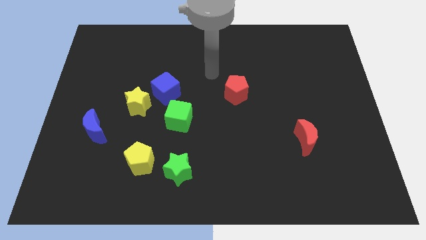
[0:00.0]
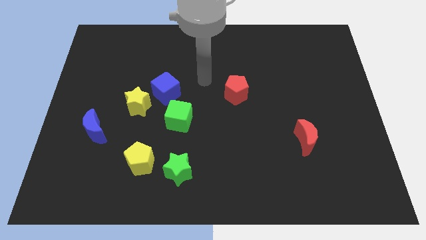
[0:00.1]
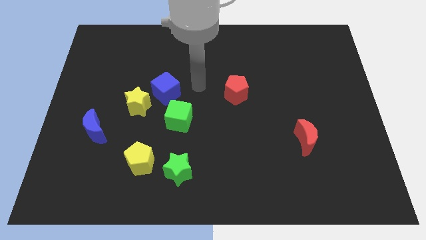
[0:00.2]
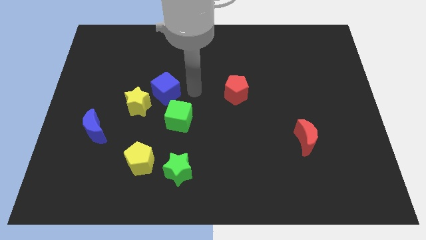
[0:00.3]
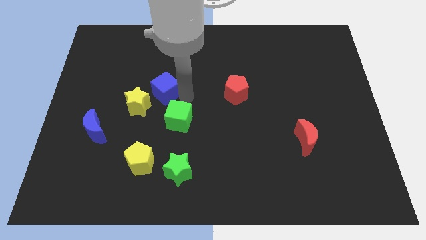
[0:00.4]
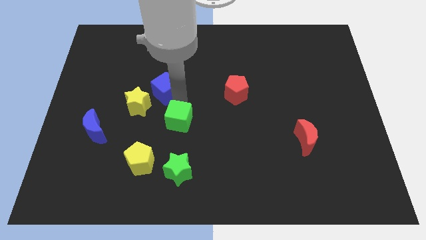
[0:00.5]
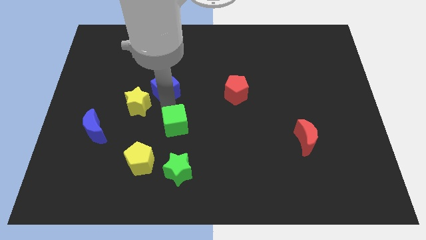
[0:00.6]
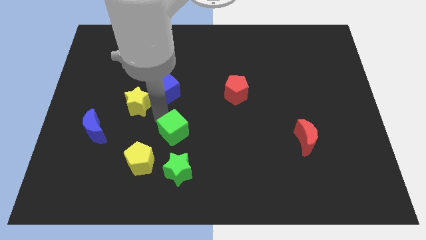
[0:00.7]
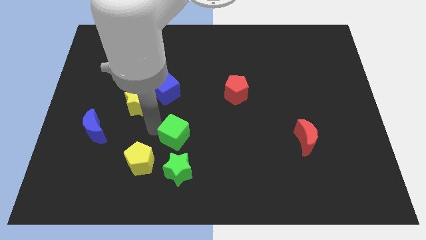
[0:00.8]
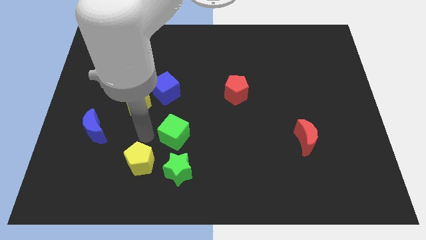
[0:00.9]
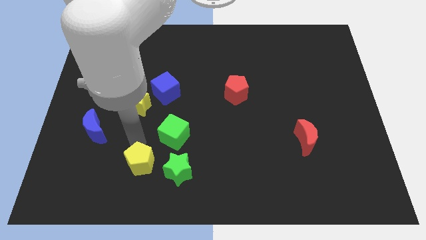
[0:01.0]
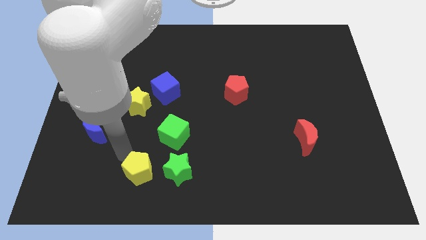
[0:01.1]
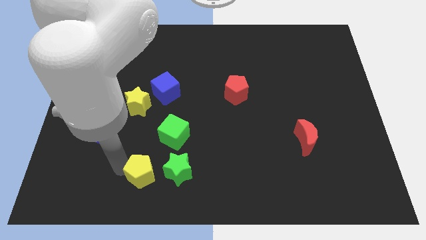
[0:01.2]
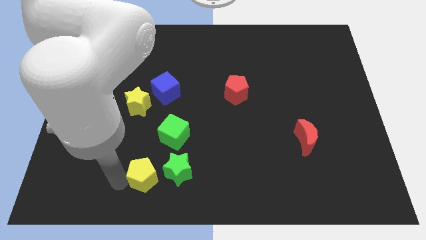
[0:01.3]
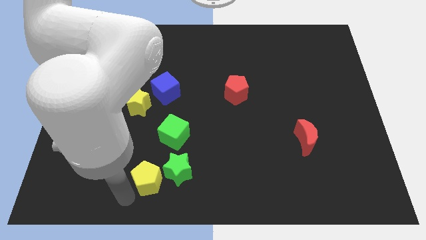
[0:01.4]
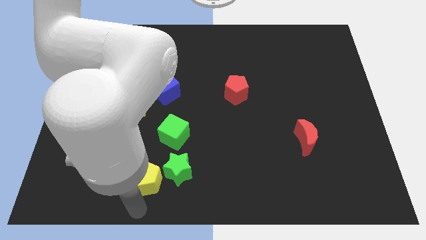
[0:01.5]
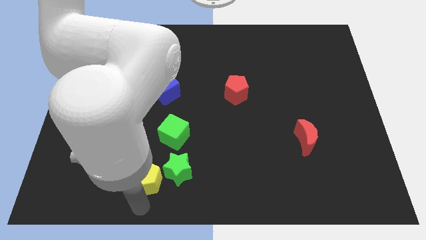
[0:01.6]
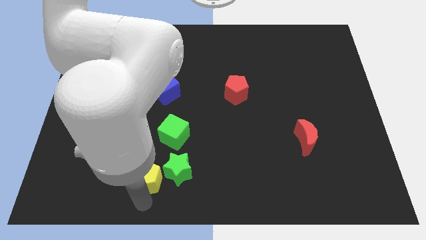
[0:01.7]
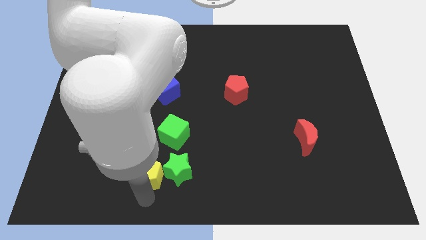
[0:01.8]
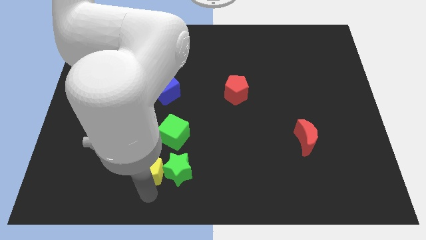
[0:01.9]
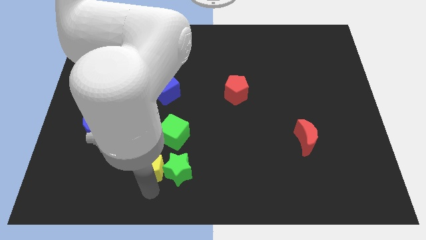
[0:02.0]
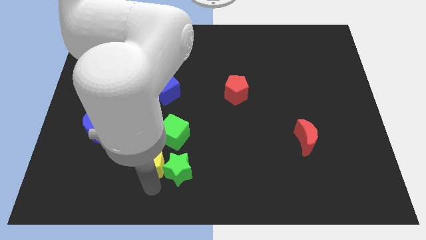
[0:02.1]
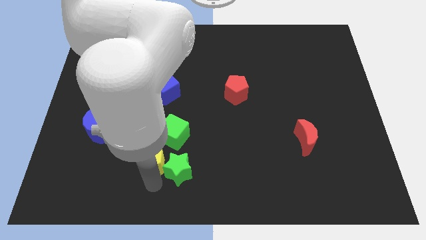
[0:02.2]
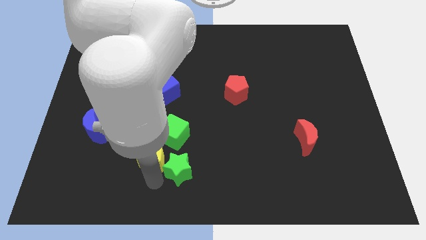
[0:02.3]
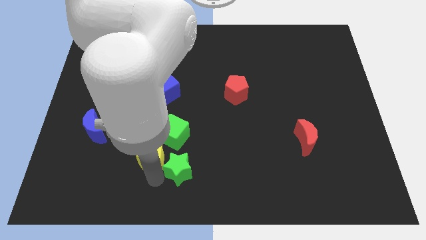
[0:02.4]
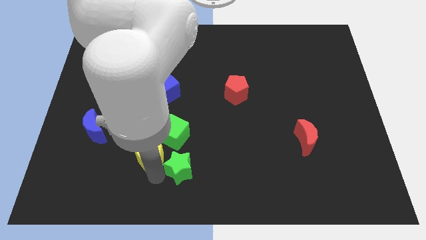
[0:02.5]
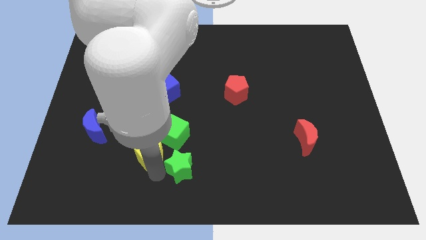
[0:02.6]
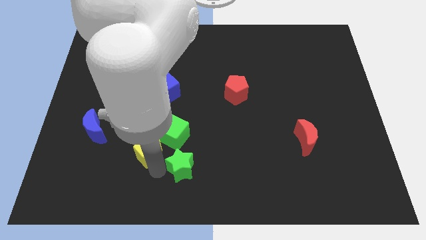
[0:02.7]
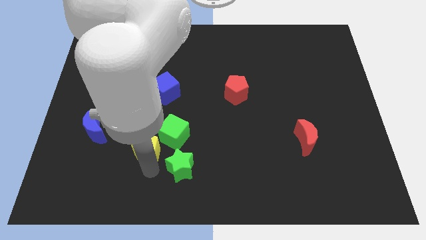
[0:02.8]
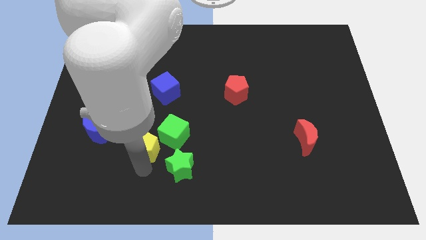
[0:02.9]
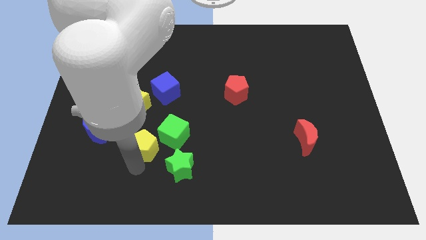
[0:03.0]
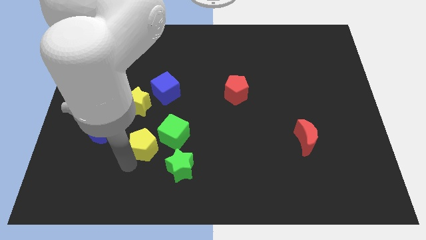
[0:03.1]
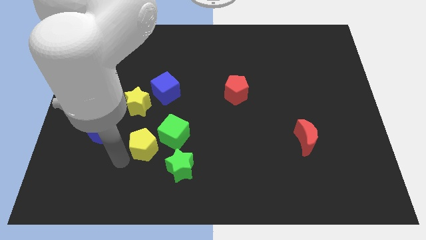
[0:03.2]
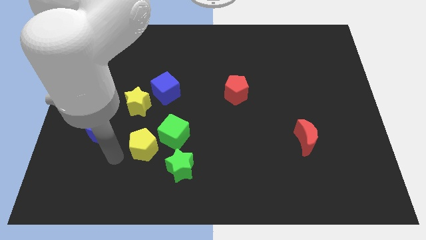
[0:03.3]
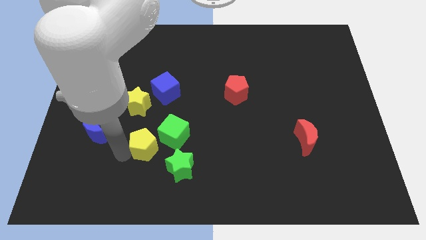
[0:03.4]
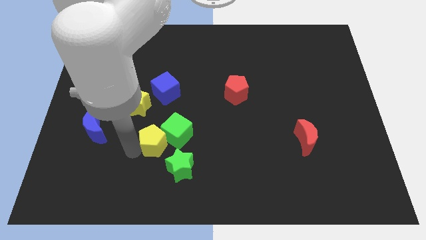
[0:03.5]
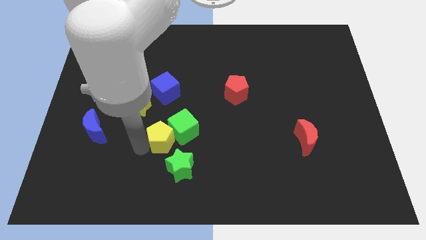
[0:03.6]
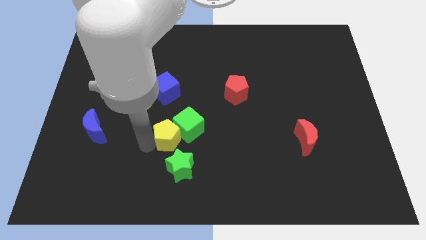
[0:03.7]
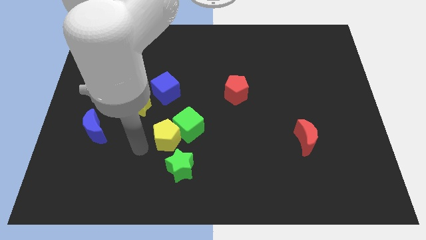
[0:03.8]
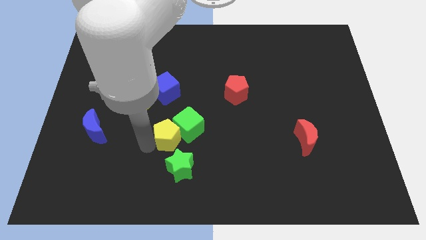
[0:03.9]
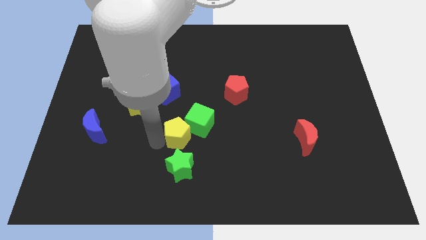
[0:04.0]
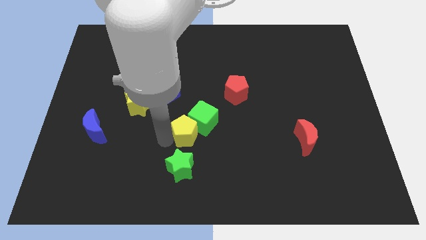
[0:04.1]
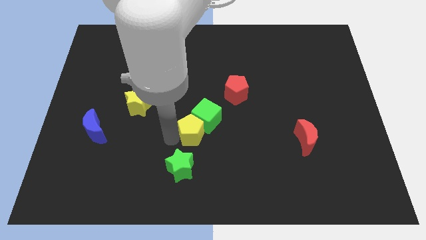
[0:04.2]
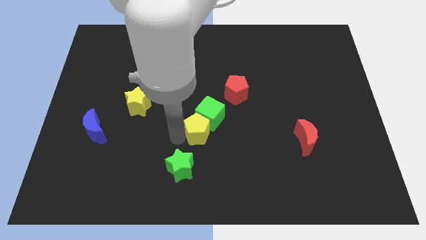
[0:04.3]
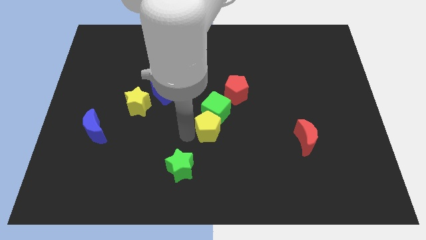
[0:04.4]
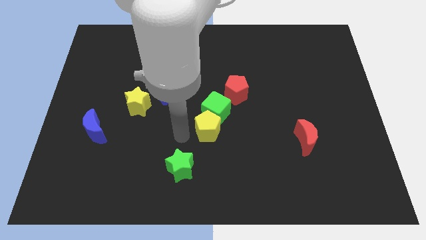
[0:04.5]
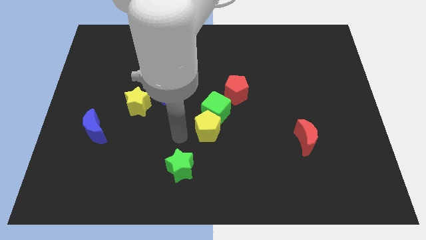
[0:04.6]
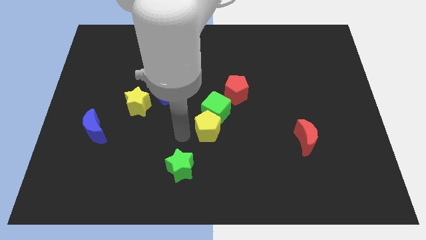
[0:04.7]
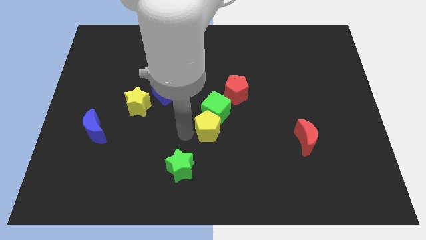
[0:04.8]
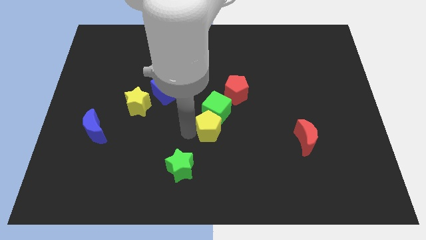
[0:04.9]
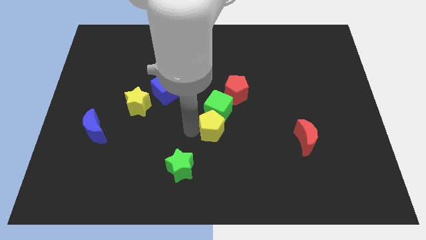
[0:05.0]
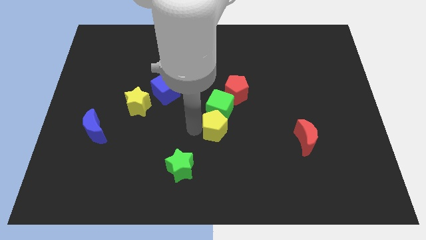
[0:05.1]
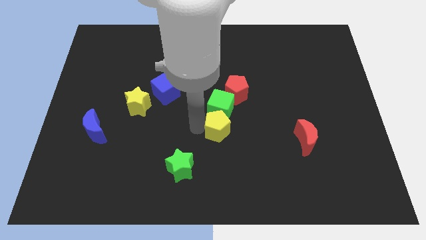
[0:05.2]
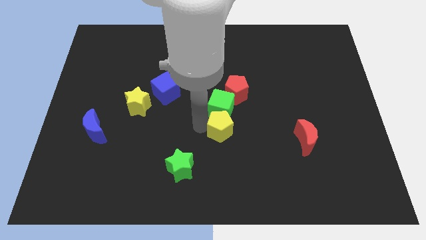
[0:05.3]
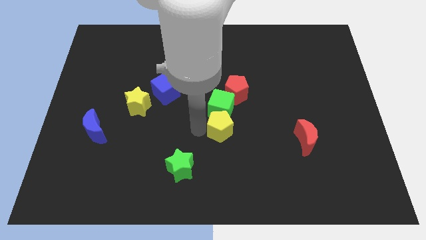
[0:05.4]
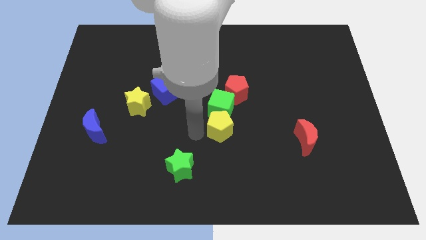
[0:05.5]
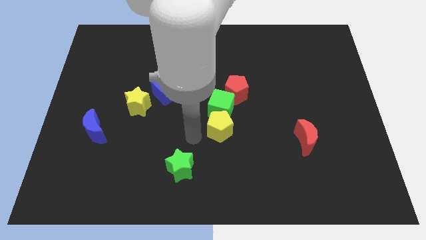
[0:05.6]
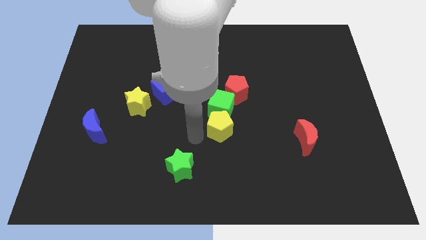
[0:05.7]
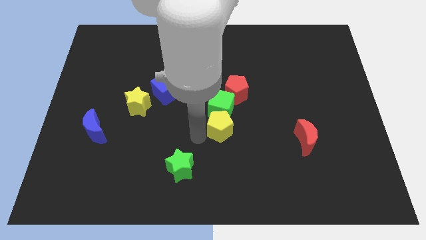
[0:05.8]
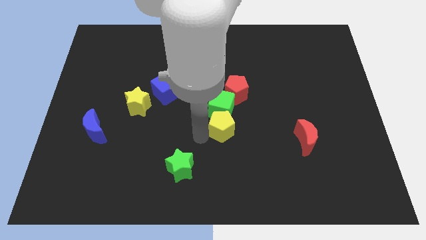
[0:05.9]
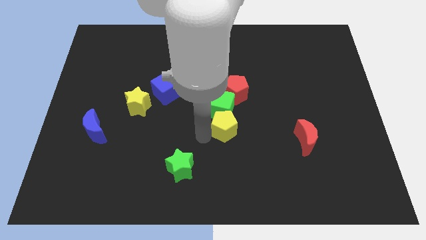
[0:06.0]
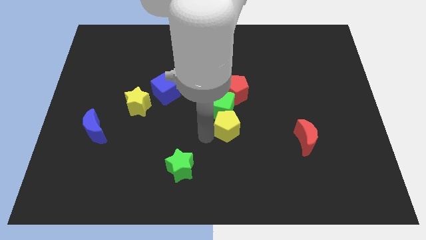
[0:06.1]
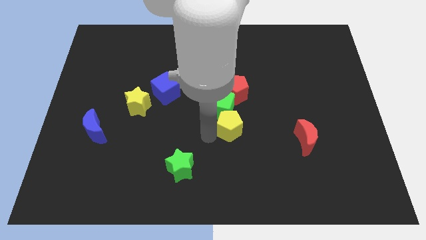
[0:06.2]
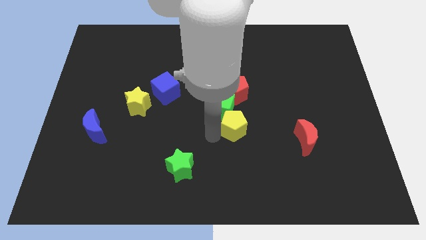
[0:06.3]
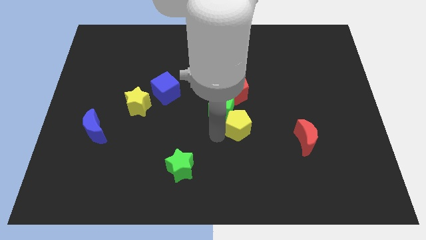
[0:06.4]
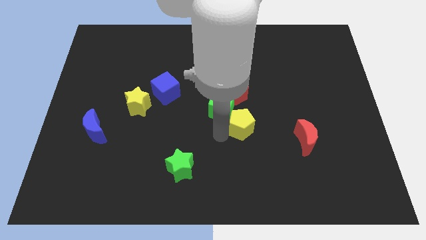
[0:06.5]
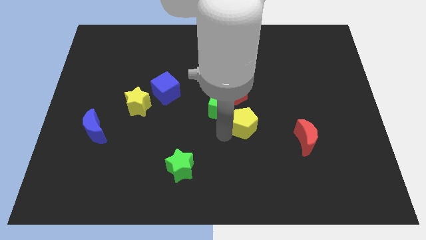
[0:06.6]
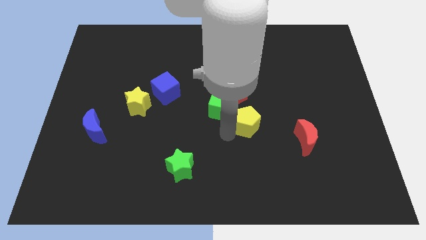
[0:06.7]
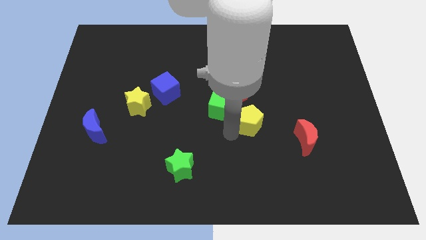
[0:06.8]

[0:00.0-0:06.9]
put the yellow pentagon to the bottom right side of the red pentagon

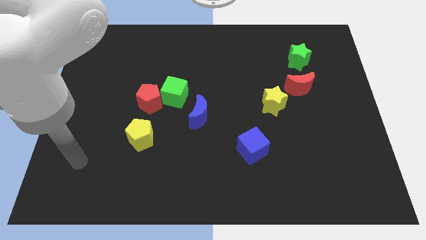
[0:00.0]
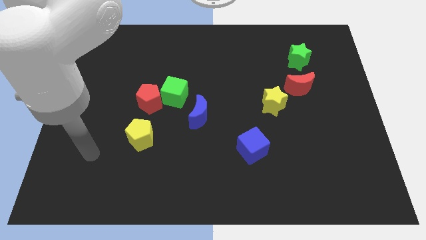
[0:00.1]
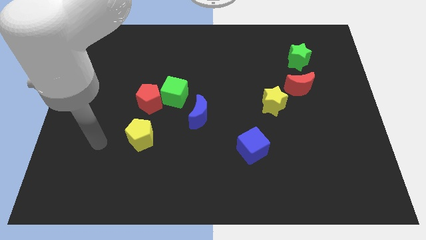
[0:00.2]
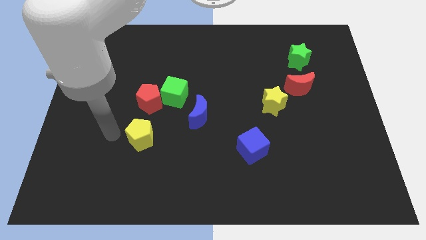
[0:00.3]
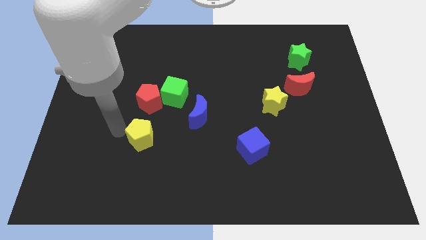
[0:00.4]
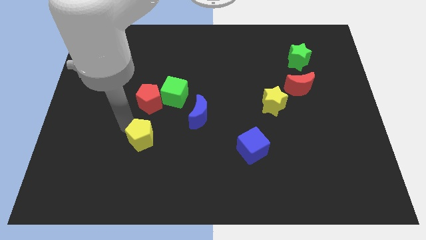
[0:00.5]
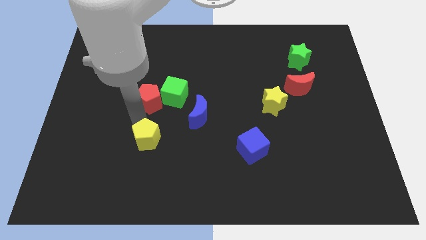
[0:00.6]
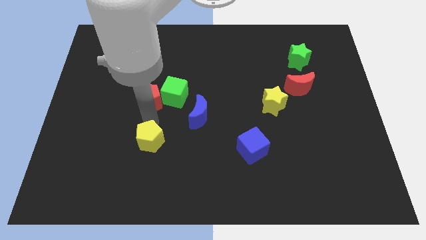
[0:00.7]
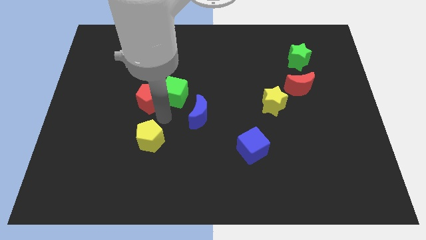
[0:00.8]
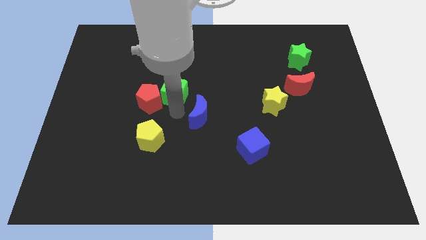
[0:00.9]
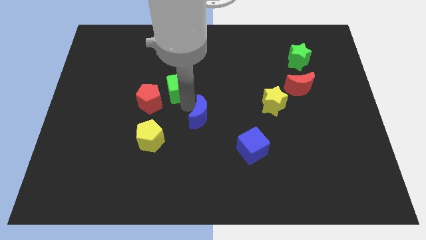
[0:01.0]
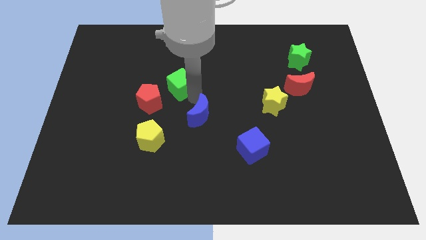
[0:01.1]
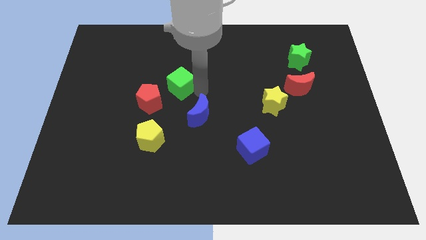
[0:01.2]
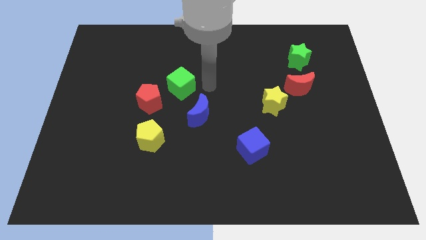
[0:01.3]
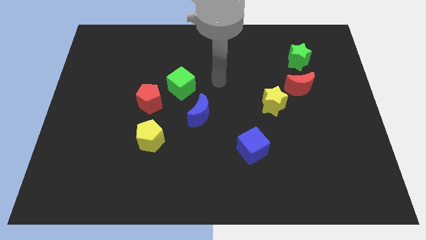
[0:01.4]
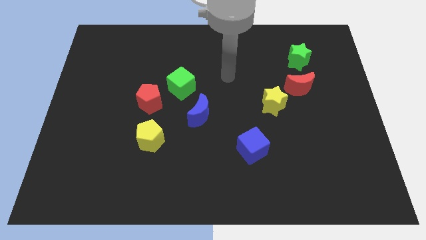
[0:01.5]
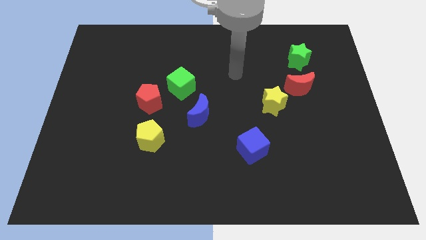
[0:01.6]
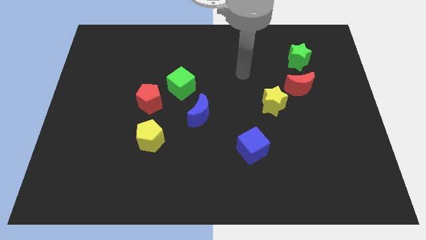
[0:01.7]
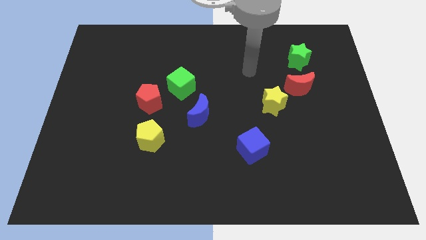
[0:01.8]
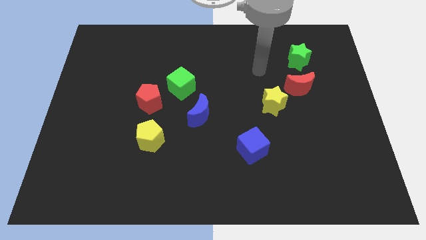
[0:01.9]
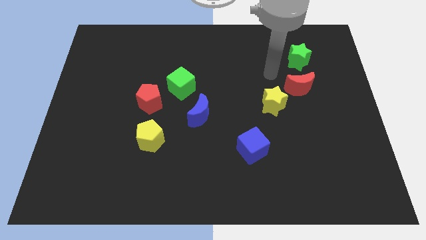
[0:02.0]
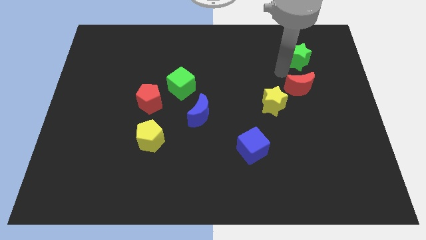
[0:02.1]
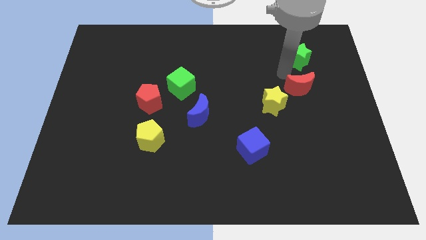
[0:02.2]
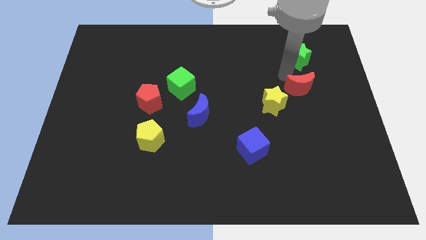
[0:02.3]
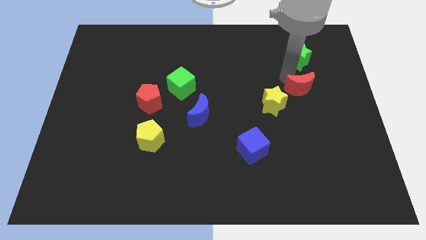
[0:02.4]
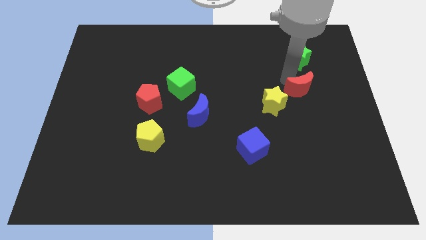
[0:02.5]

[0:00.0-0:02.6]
put the red moon to the right side of the yellow star
